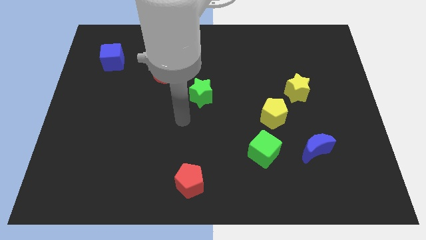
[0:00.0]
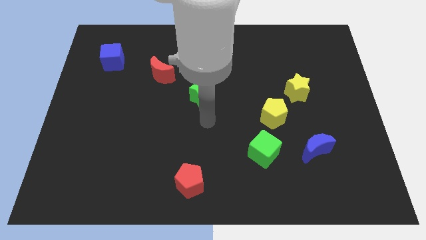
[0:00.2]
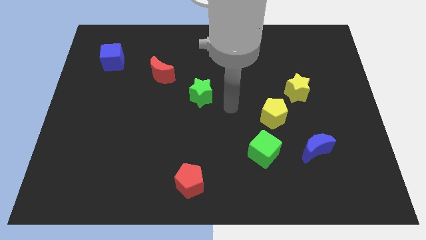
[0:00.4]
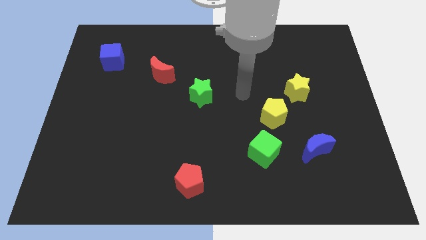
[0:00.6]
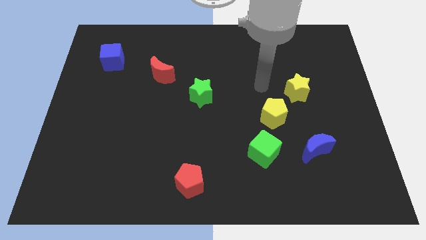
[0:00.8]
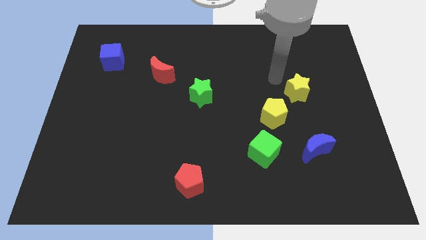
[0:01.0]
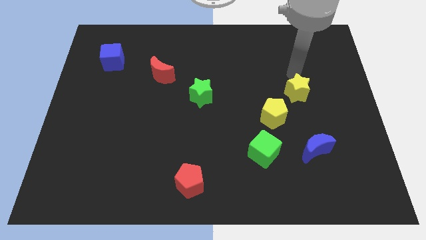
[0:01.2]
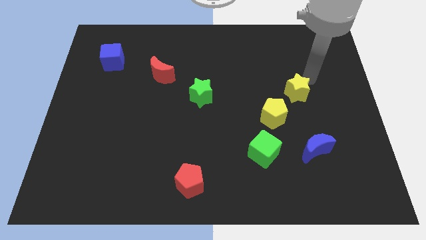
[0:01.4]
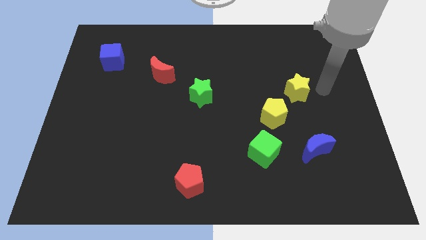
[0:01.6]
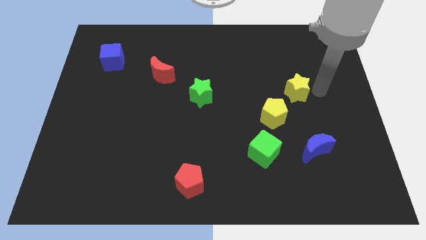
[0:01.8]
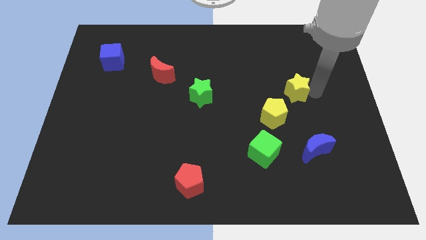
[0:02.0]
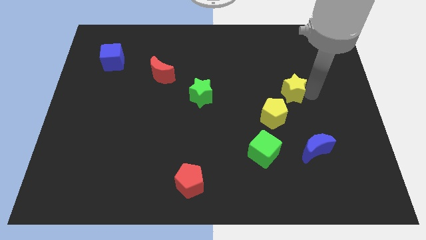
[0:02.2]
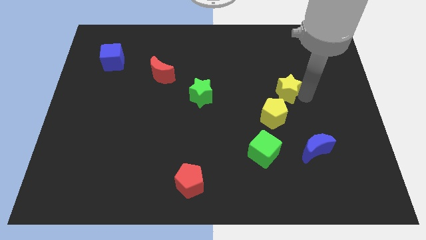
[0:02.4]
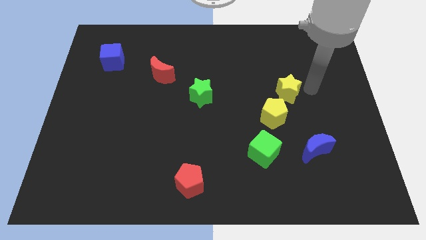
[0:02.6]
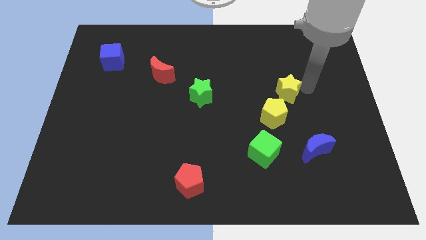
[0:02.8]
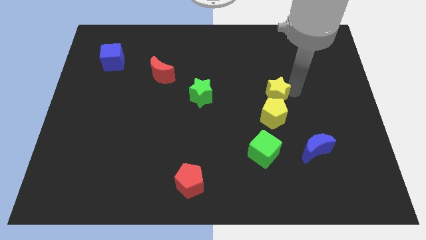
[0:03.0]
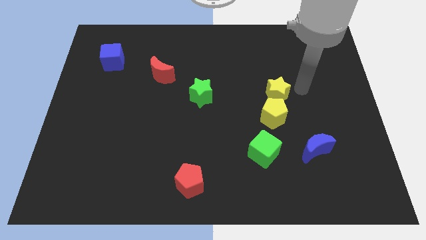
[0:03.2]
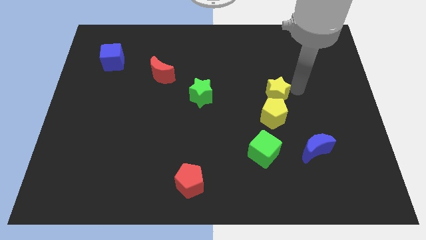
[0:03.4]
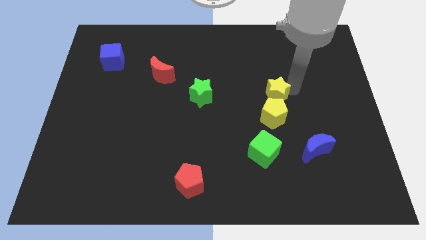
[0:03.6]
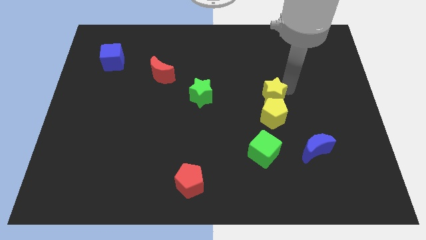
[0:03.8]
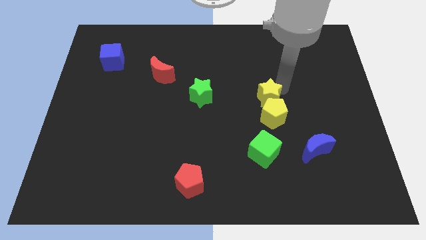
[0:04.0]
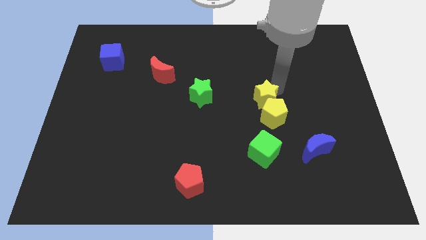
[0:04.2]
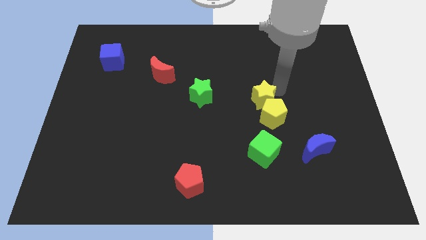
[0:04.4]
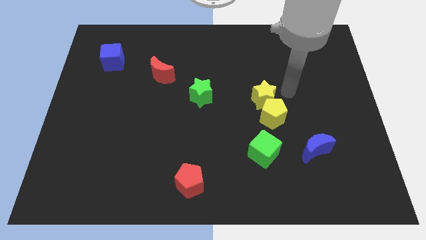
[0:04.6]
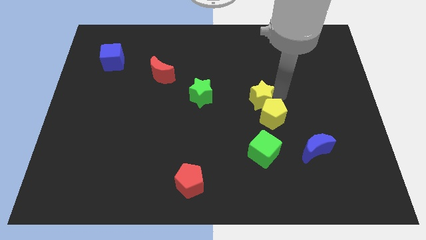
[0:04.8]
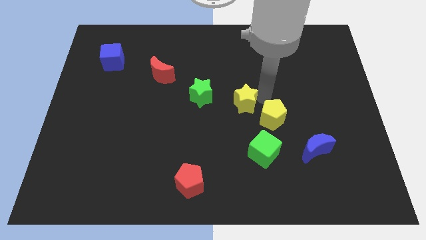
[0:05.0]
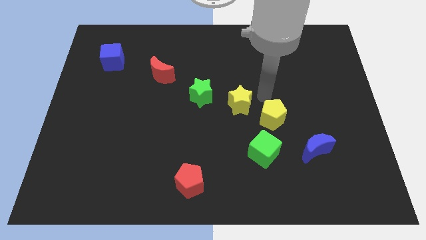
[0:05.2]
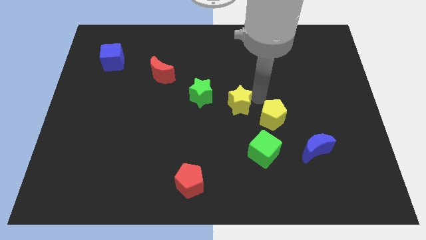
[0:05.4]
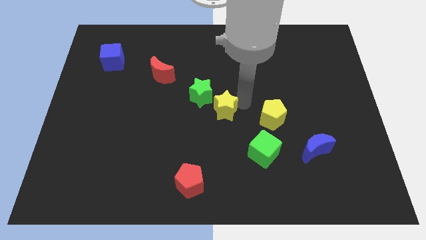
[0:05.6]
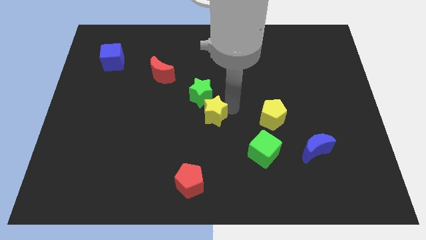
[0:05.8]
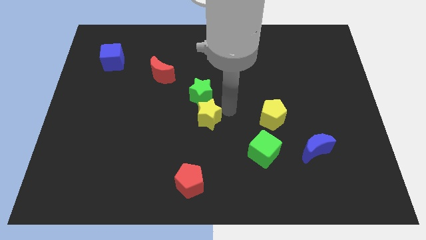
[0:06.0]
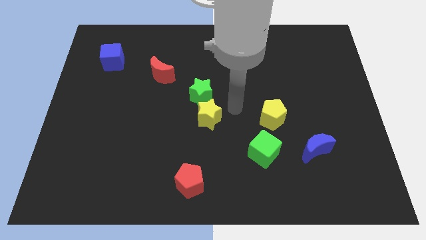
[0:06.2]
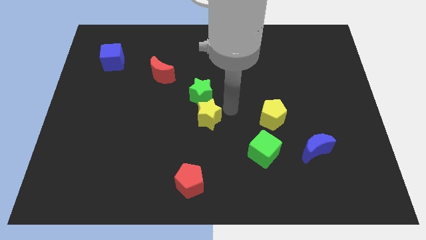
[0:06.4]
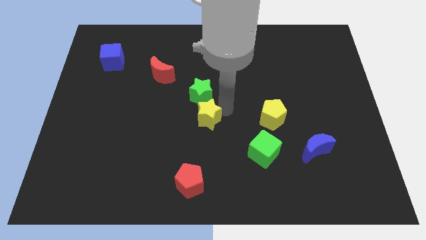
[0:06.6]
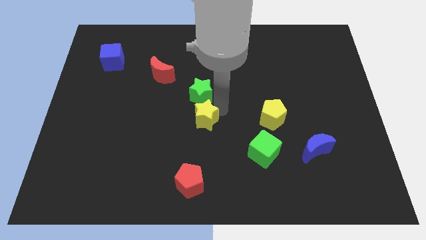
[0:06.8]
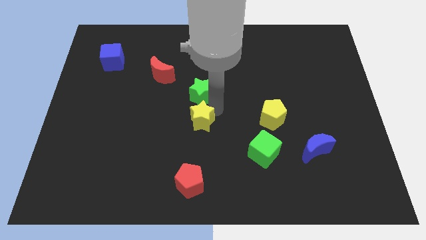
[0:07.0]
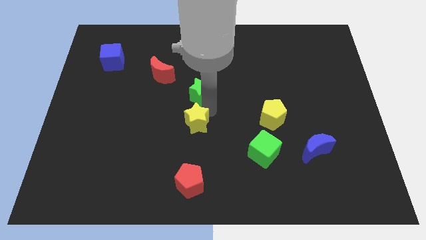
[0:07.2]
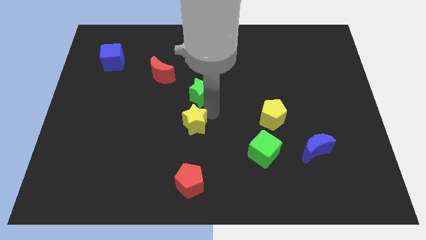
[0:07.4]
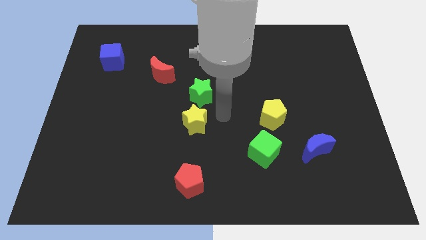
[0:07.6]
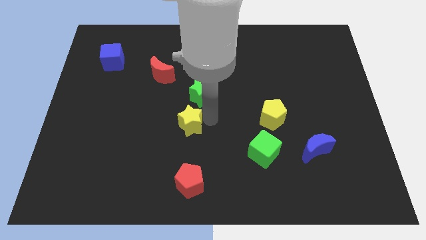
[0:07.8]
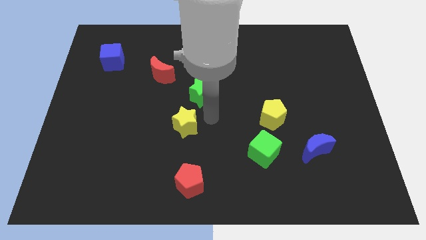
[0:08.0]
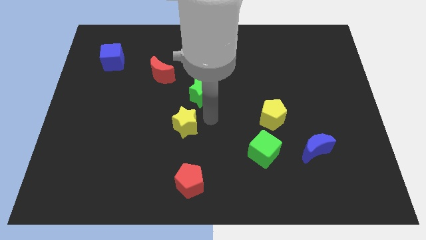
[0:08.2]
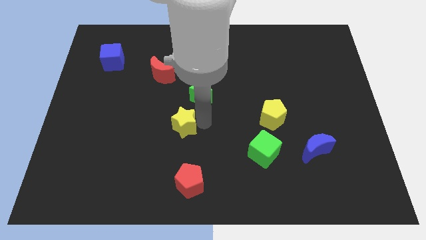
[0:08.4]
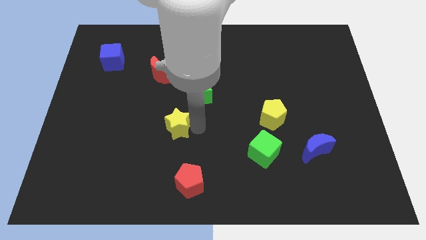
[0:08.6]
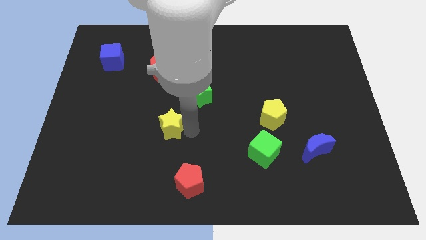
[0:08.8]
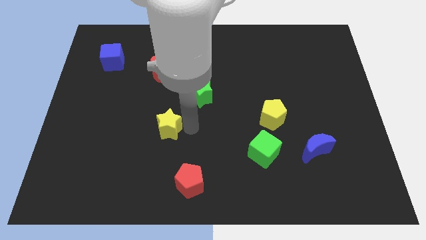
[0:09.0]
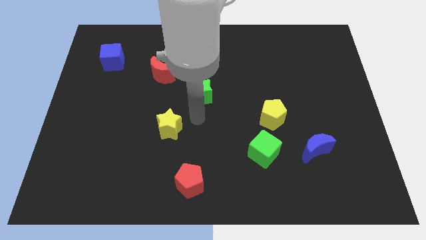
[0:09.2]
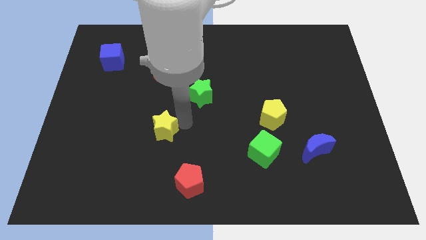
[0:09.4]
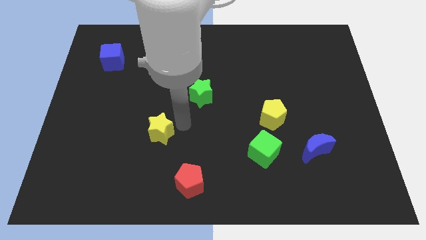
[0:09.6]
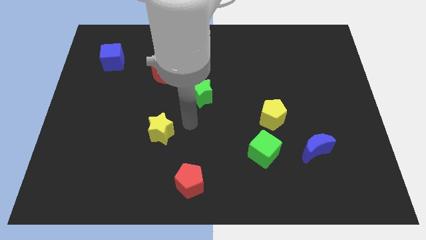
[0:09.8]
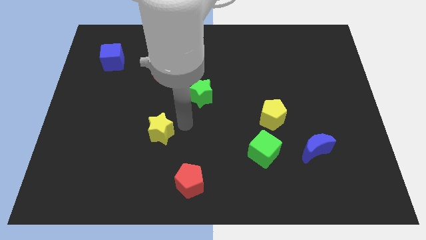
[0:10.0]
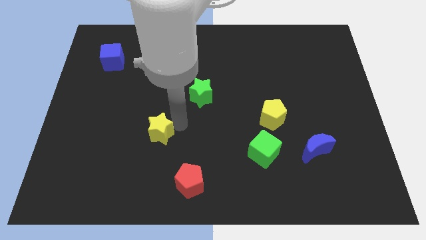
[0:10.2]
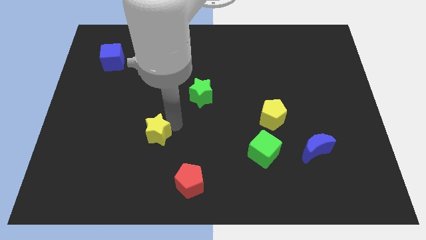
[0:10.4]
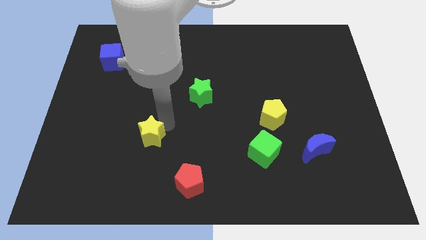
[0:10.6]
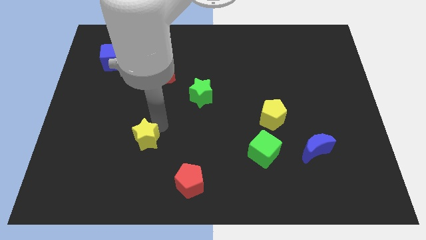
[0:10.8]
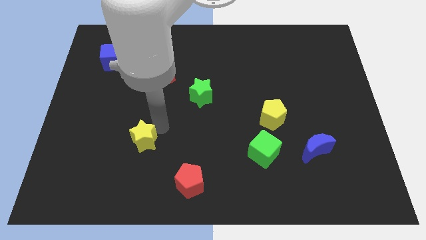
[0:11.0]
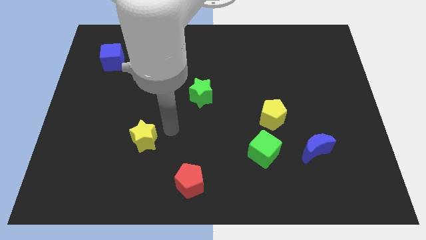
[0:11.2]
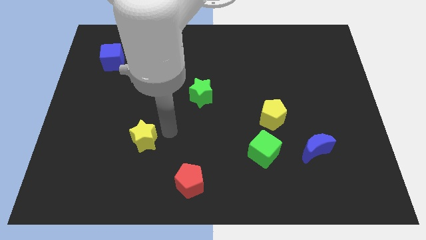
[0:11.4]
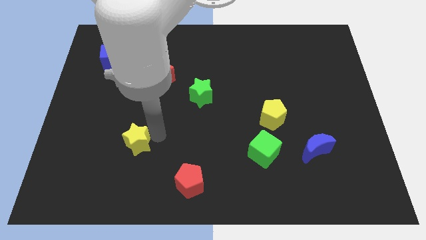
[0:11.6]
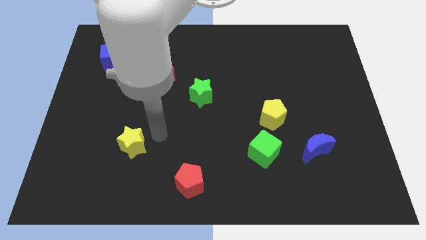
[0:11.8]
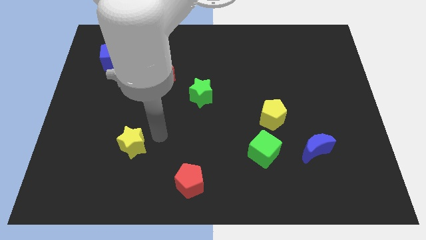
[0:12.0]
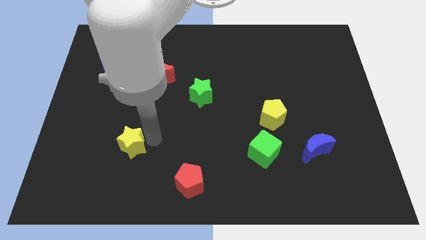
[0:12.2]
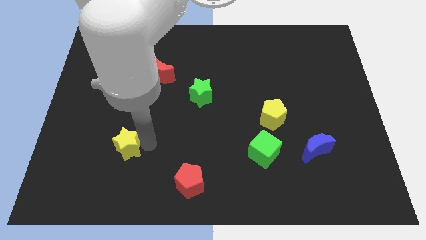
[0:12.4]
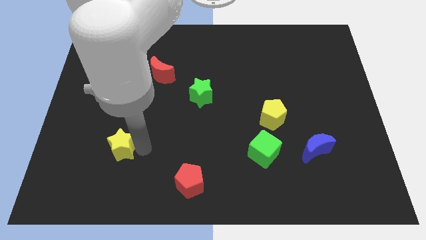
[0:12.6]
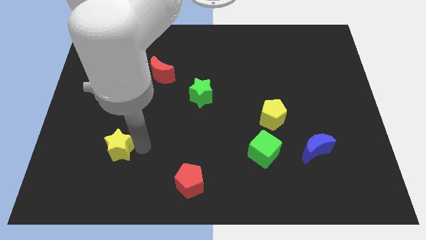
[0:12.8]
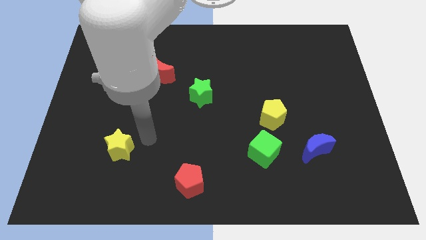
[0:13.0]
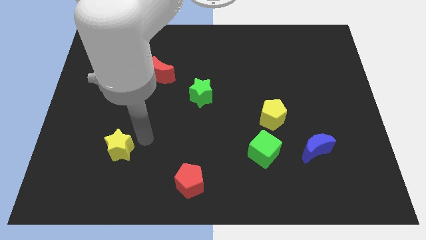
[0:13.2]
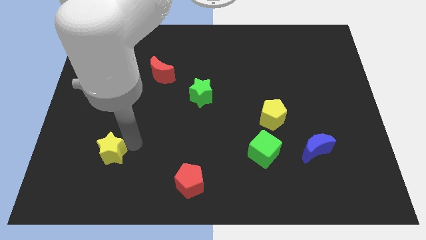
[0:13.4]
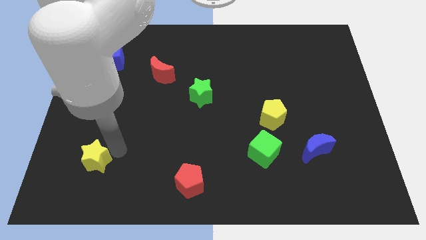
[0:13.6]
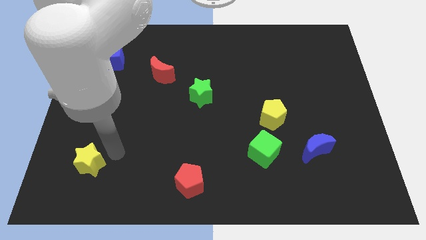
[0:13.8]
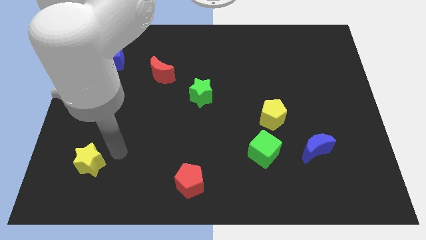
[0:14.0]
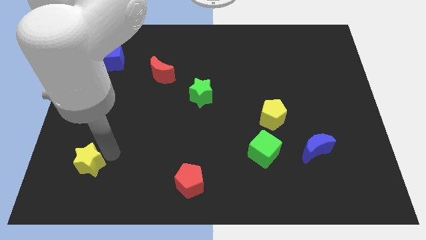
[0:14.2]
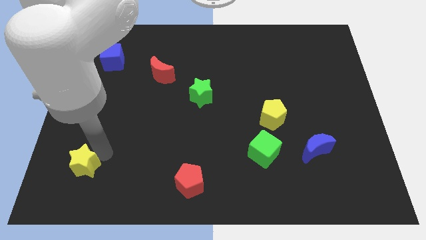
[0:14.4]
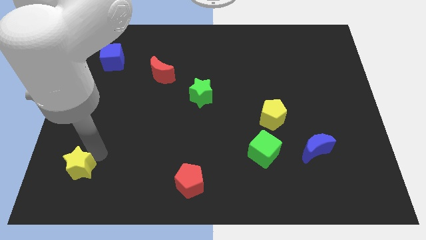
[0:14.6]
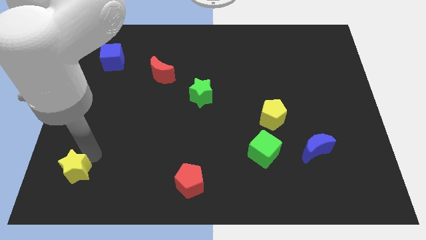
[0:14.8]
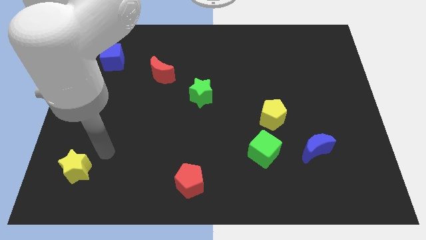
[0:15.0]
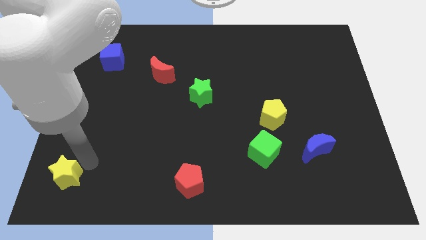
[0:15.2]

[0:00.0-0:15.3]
put the yellow star to the lower left corner
